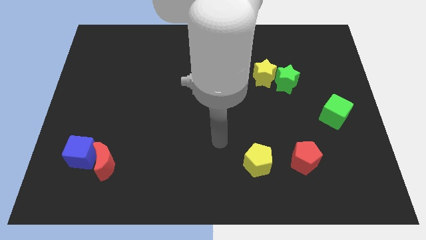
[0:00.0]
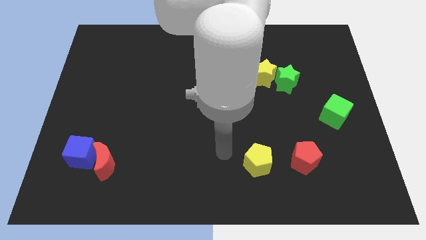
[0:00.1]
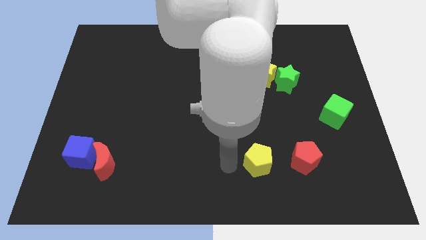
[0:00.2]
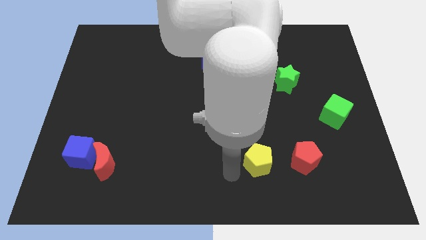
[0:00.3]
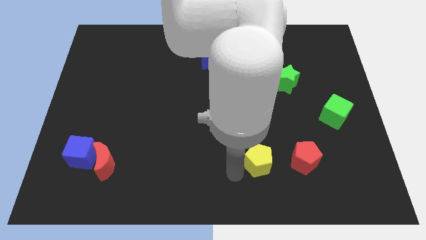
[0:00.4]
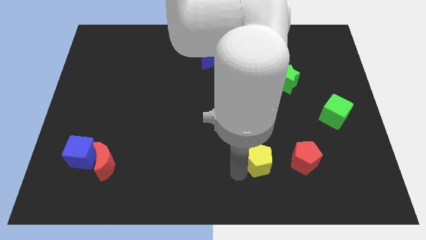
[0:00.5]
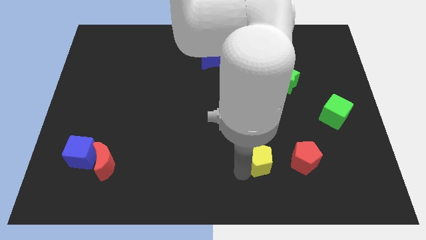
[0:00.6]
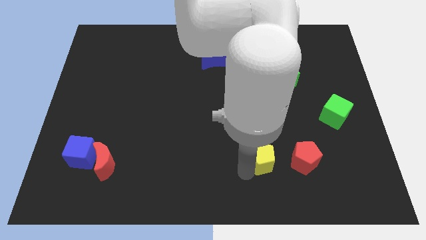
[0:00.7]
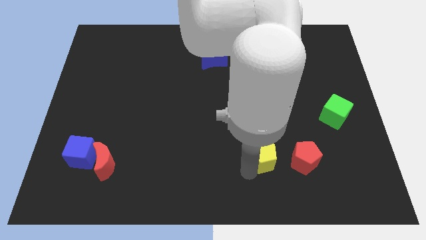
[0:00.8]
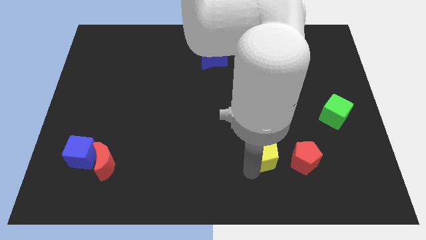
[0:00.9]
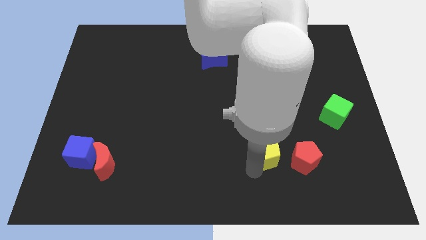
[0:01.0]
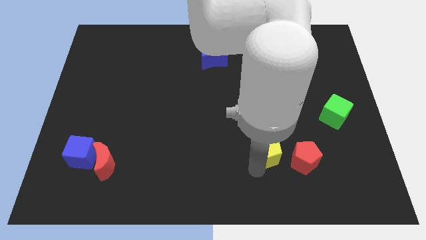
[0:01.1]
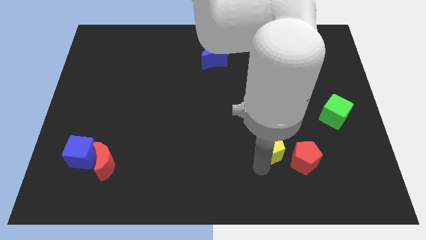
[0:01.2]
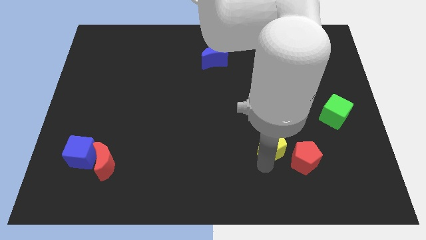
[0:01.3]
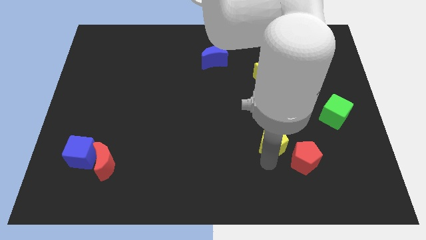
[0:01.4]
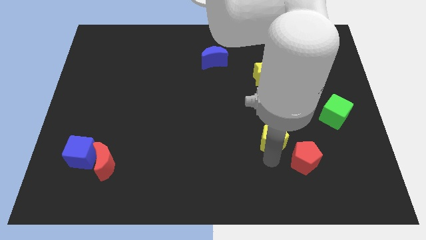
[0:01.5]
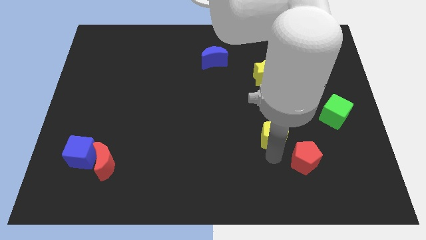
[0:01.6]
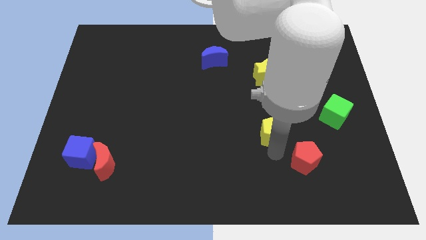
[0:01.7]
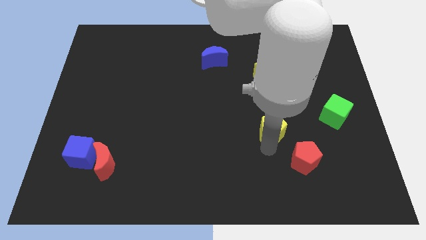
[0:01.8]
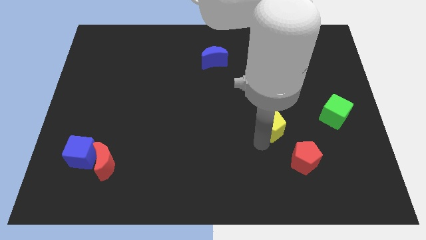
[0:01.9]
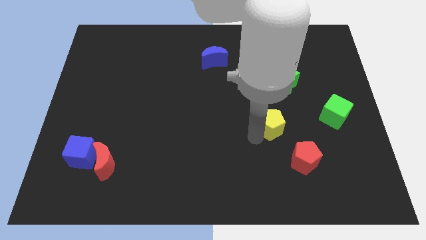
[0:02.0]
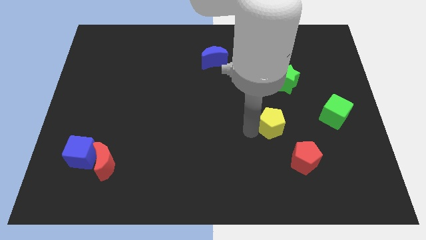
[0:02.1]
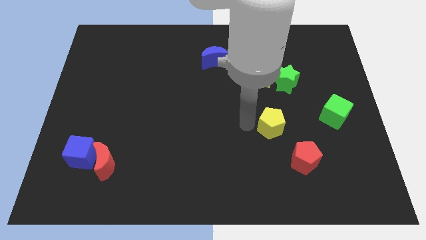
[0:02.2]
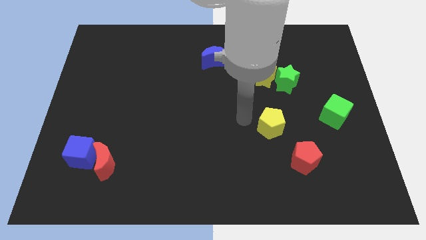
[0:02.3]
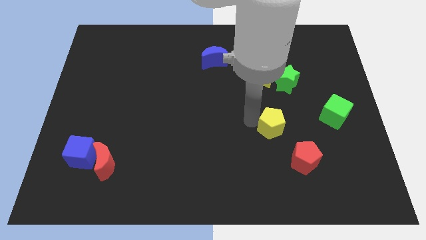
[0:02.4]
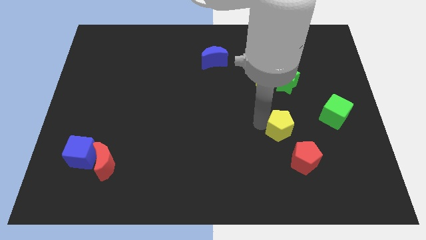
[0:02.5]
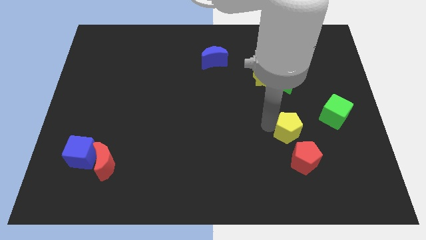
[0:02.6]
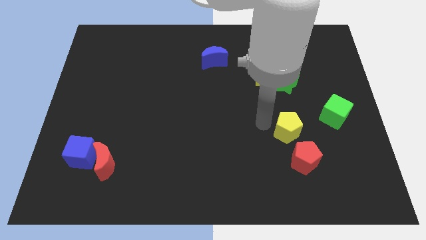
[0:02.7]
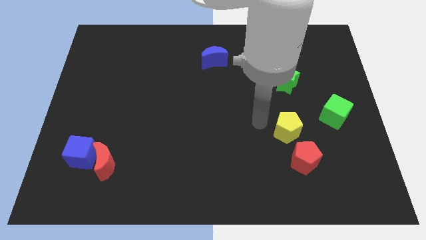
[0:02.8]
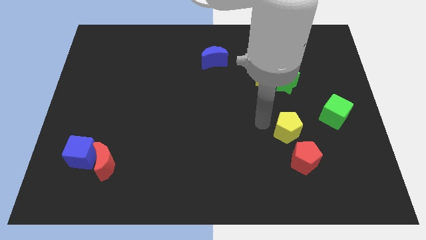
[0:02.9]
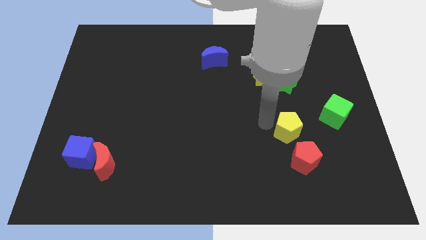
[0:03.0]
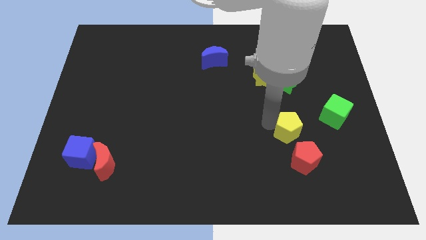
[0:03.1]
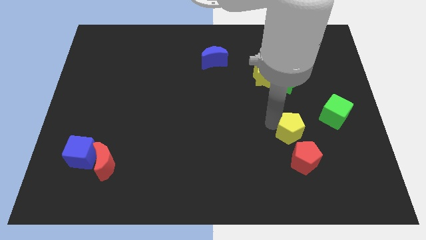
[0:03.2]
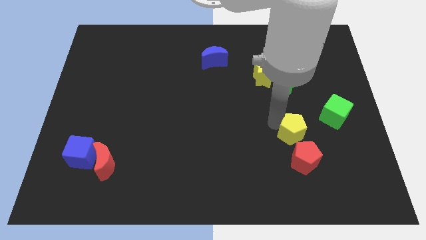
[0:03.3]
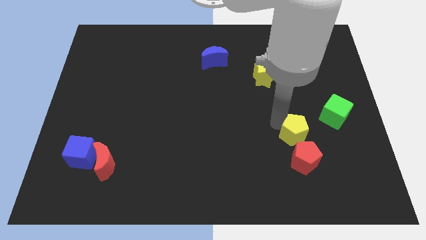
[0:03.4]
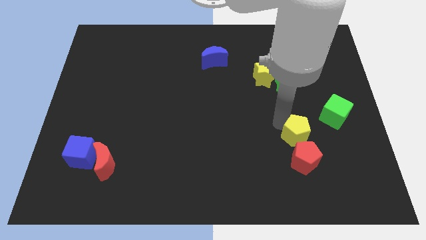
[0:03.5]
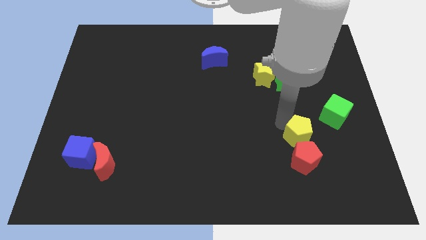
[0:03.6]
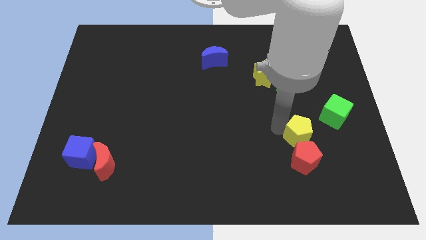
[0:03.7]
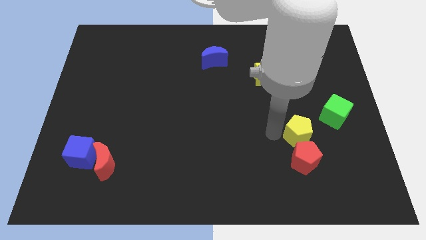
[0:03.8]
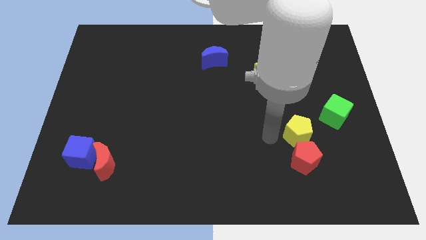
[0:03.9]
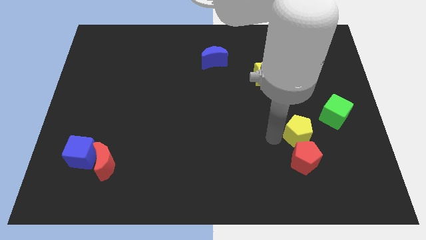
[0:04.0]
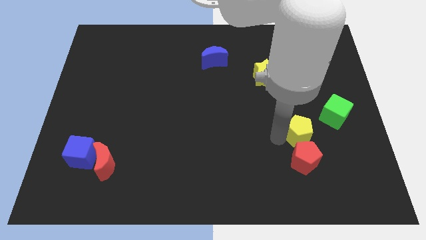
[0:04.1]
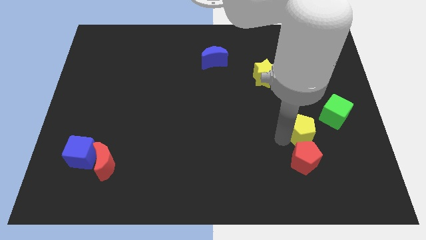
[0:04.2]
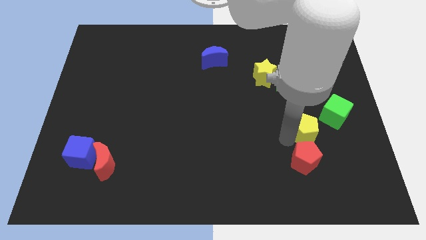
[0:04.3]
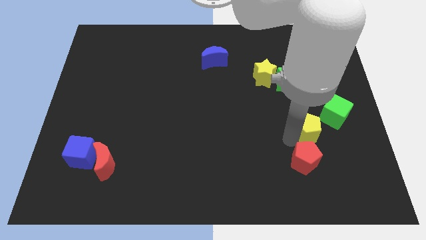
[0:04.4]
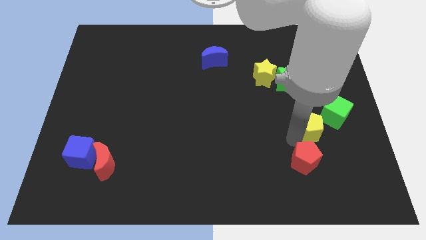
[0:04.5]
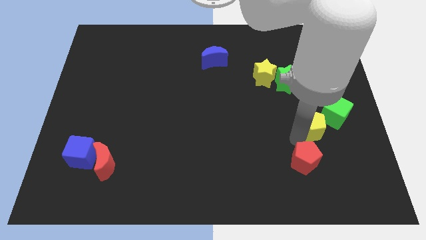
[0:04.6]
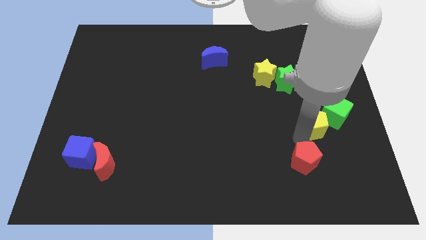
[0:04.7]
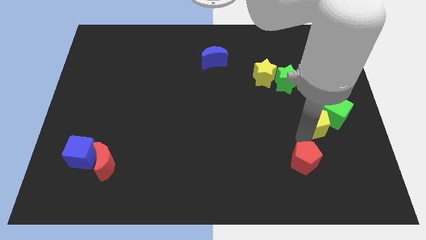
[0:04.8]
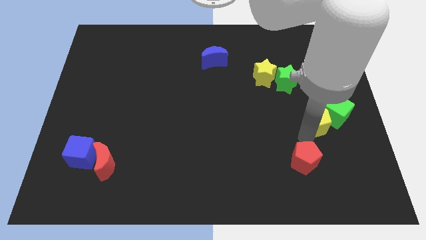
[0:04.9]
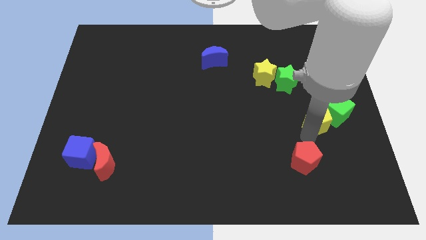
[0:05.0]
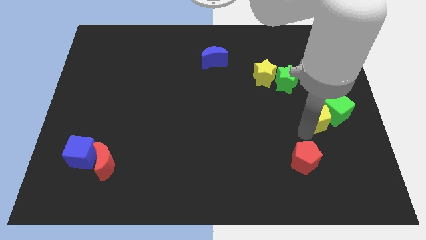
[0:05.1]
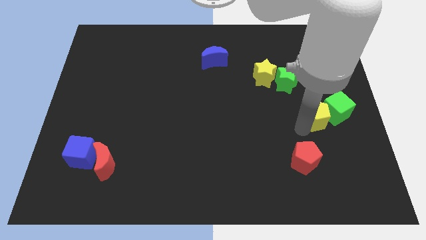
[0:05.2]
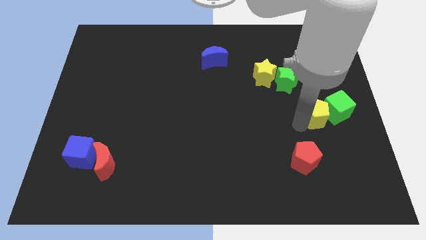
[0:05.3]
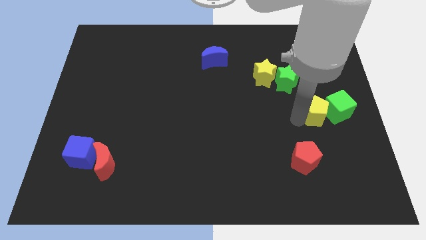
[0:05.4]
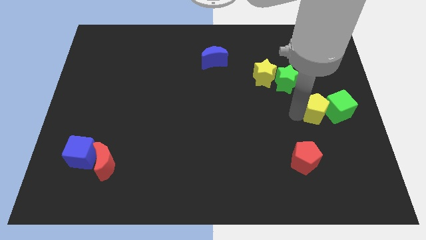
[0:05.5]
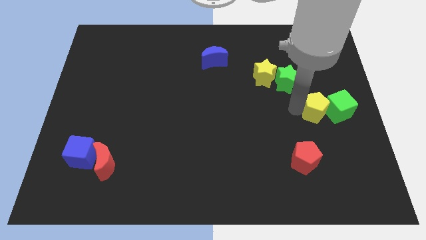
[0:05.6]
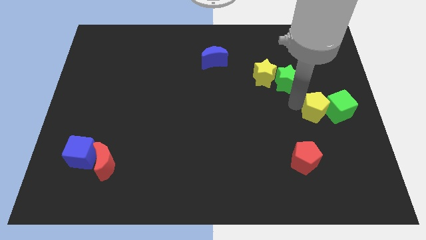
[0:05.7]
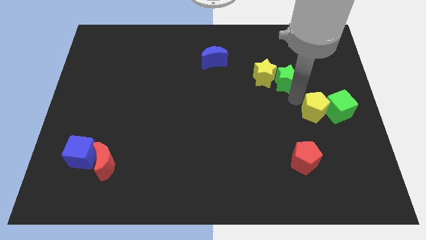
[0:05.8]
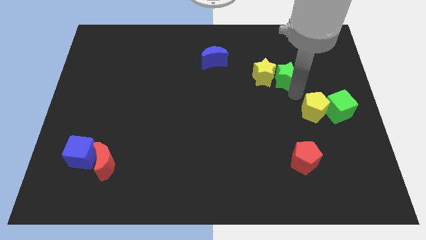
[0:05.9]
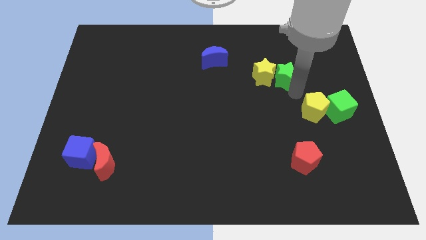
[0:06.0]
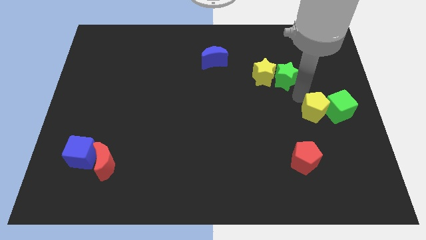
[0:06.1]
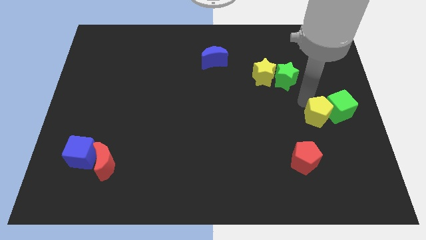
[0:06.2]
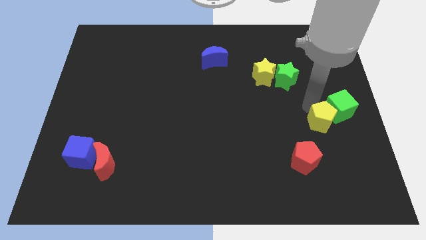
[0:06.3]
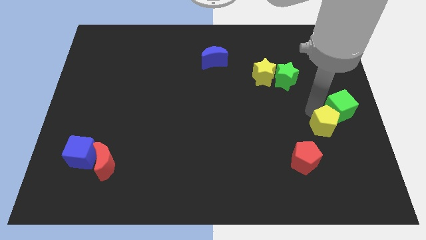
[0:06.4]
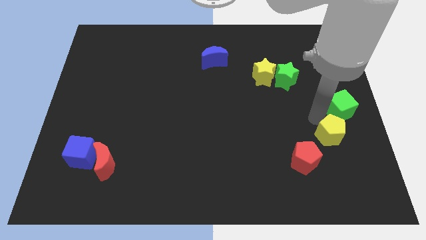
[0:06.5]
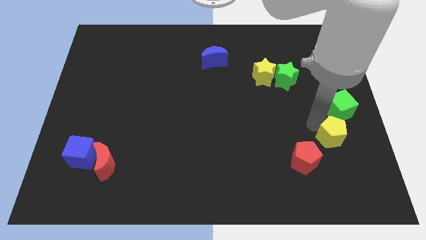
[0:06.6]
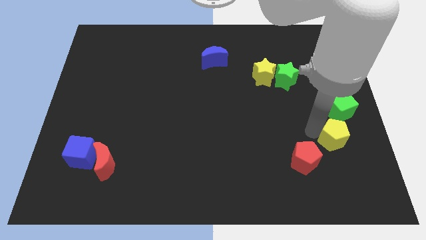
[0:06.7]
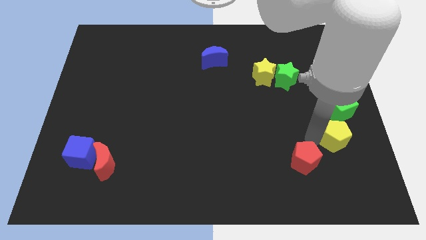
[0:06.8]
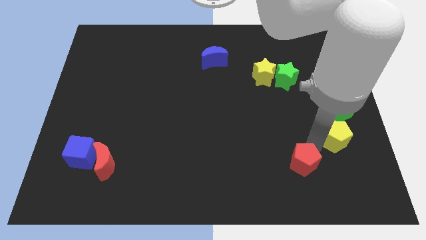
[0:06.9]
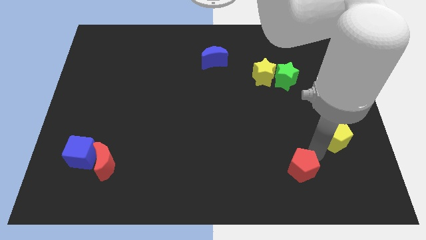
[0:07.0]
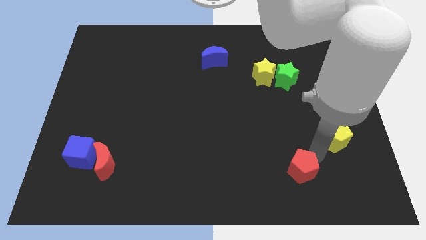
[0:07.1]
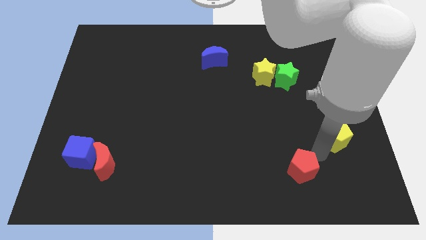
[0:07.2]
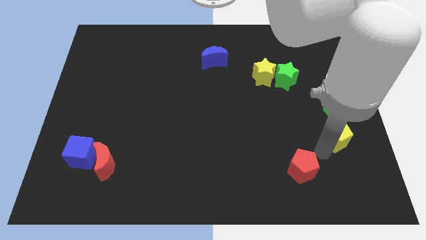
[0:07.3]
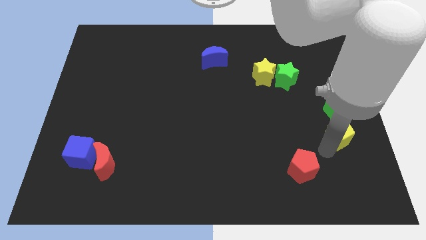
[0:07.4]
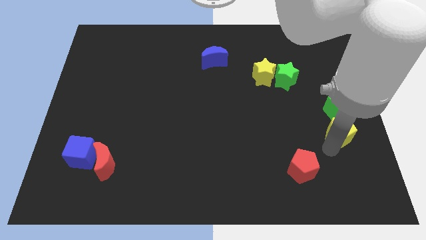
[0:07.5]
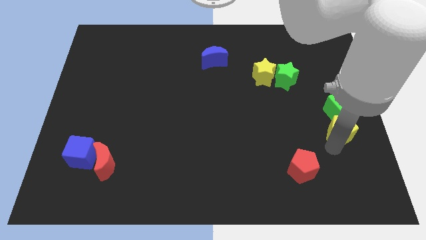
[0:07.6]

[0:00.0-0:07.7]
slide the yellow pentagon to the right side

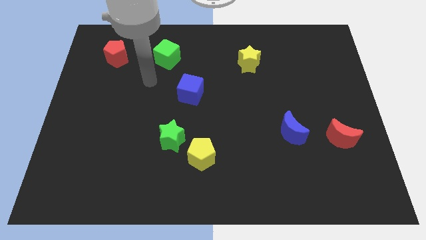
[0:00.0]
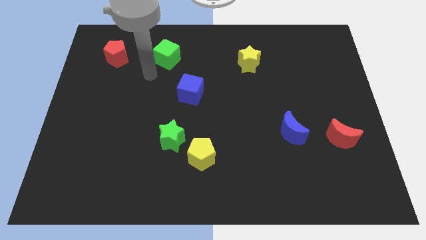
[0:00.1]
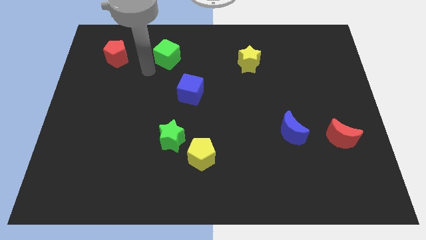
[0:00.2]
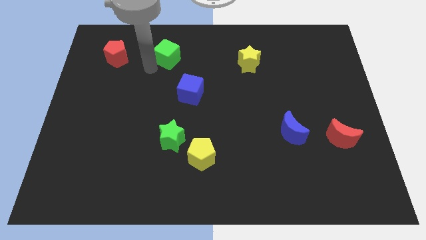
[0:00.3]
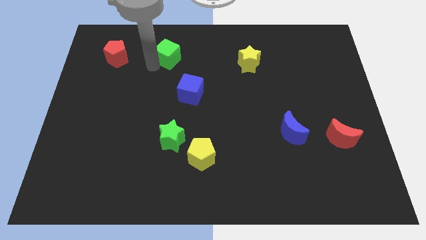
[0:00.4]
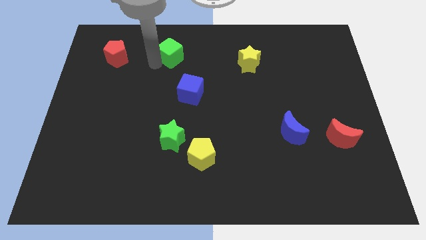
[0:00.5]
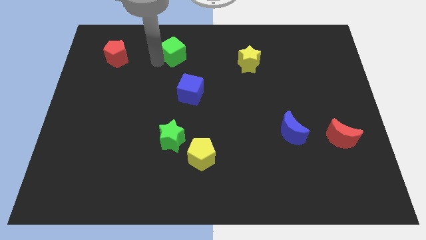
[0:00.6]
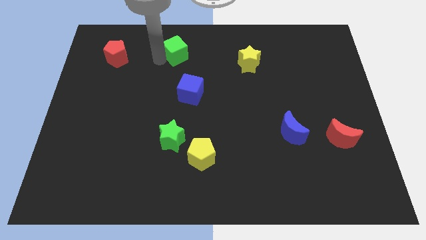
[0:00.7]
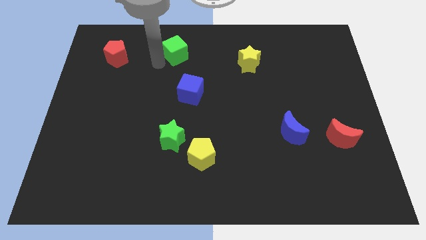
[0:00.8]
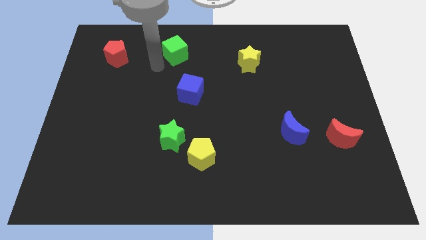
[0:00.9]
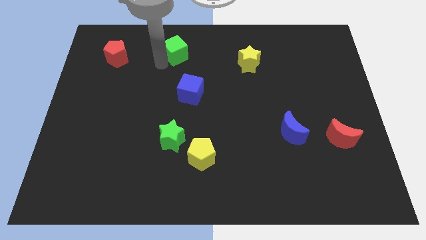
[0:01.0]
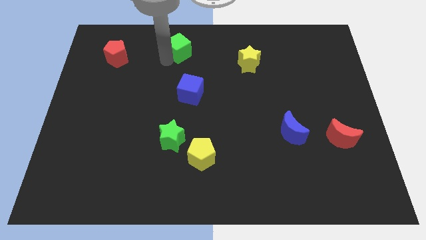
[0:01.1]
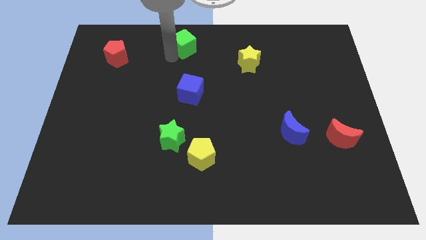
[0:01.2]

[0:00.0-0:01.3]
move the green cube to the towards your base
